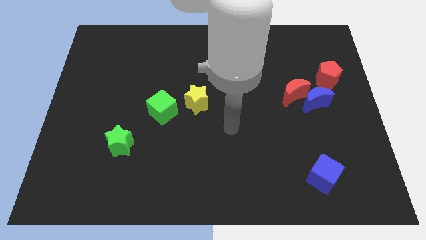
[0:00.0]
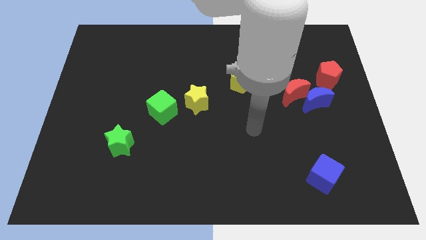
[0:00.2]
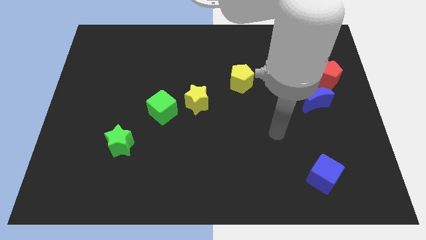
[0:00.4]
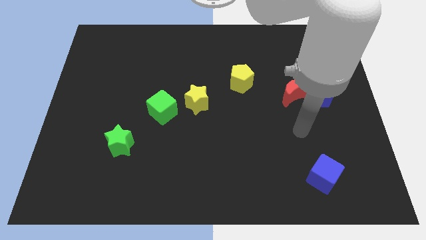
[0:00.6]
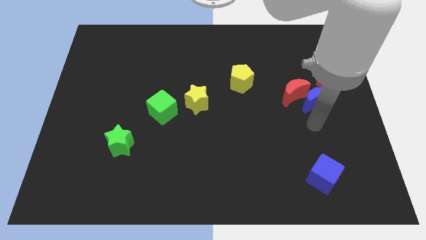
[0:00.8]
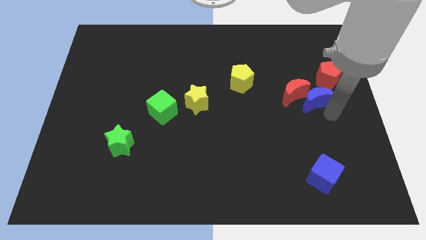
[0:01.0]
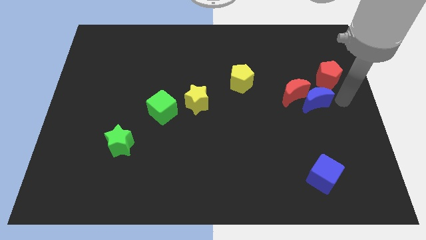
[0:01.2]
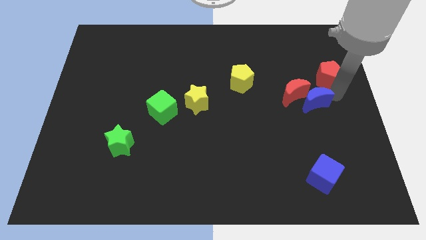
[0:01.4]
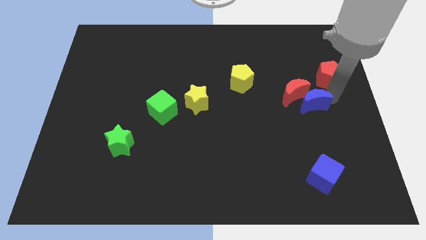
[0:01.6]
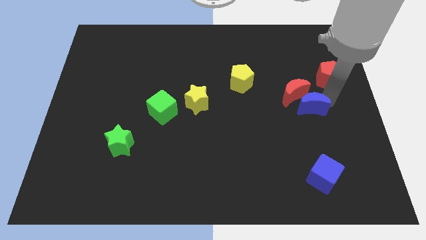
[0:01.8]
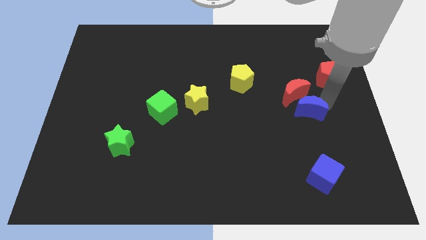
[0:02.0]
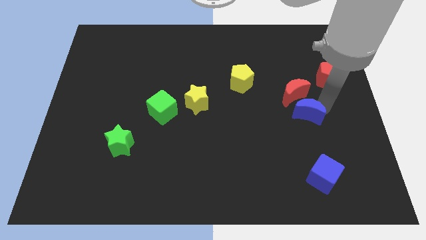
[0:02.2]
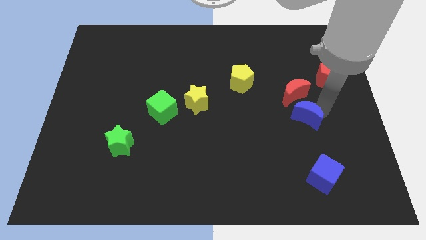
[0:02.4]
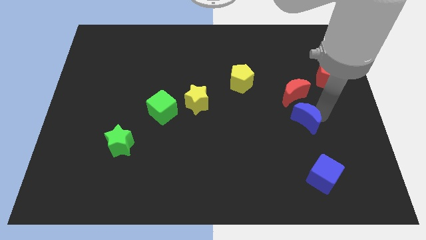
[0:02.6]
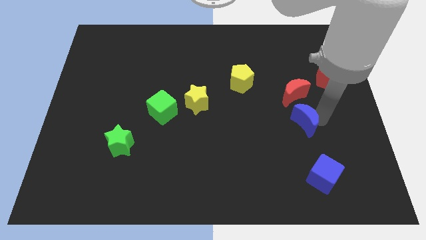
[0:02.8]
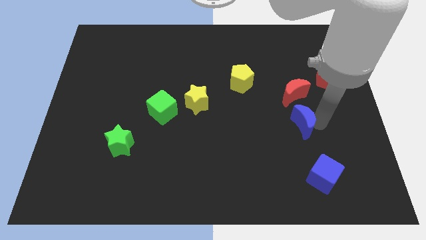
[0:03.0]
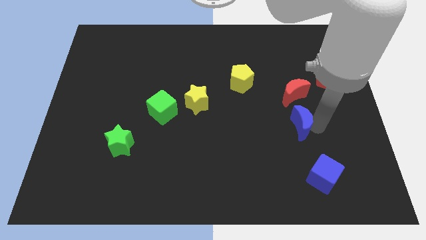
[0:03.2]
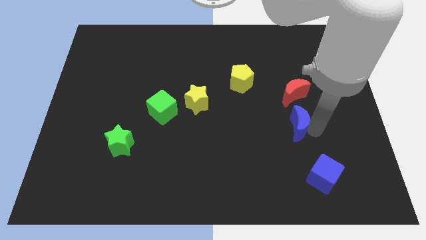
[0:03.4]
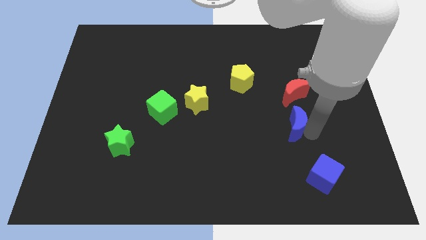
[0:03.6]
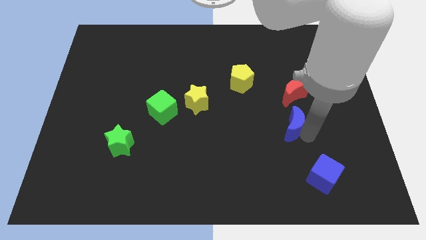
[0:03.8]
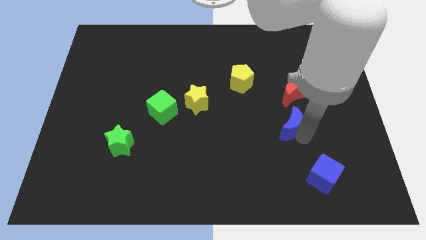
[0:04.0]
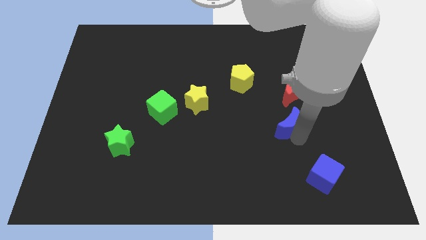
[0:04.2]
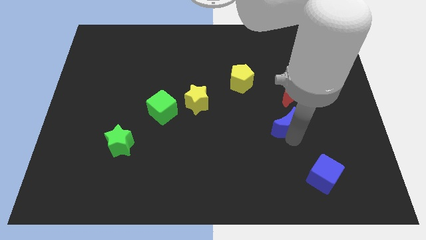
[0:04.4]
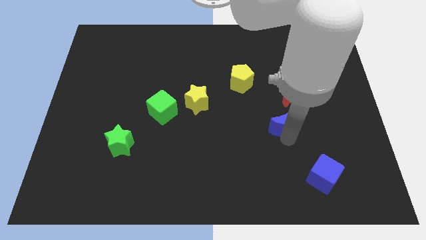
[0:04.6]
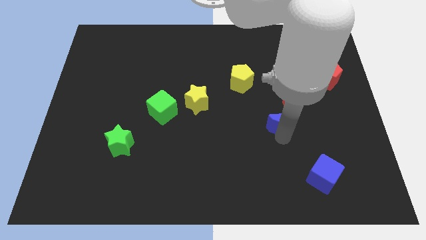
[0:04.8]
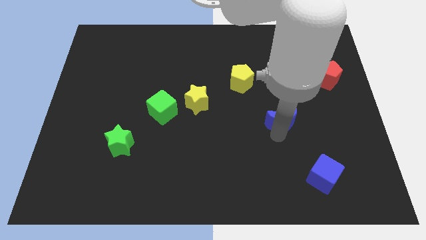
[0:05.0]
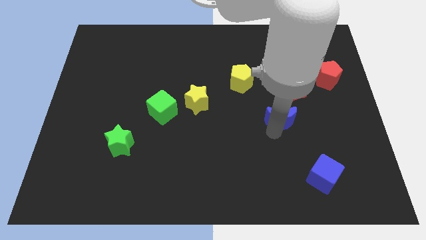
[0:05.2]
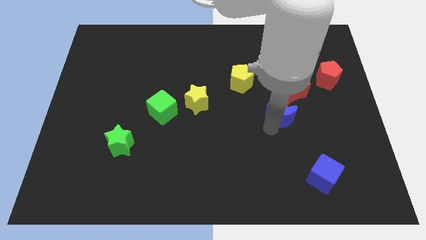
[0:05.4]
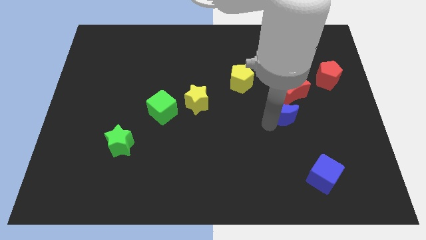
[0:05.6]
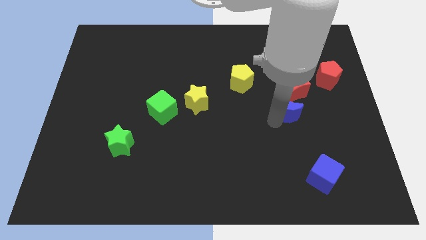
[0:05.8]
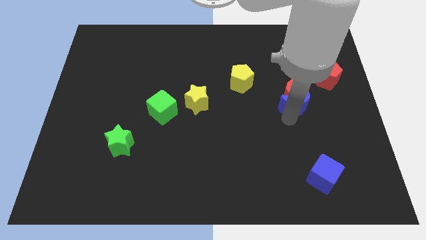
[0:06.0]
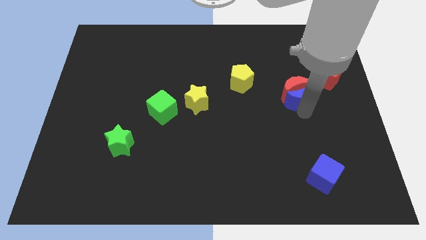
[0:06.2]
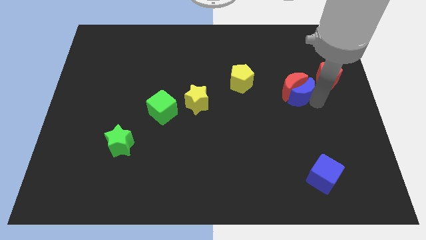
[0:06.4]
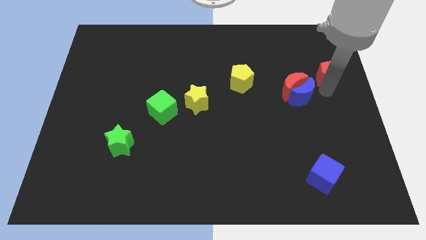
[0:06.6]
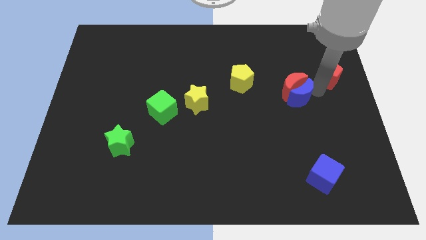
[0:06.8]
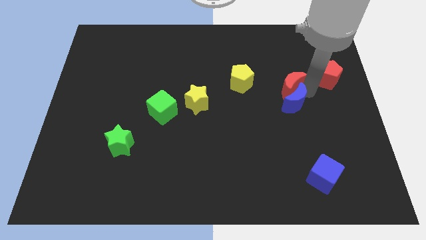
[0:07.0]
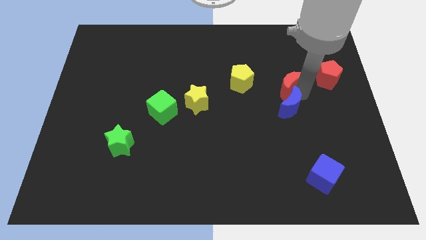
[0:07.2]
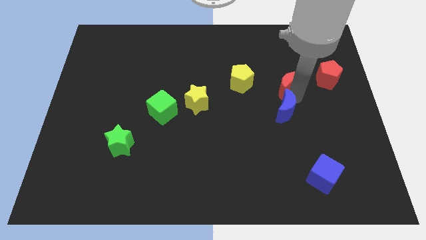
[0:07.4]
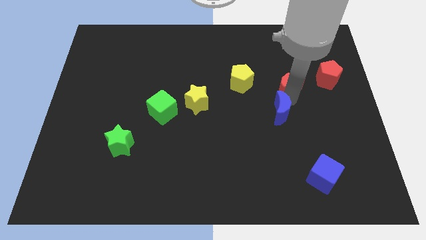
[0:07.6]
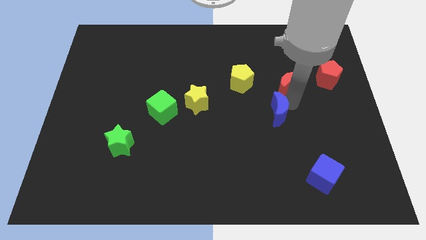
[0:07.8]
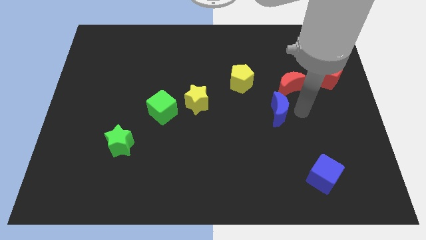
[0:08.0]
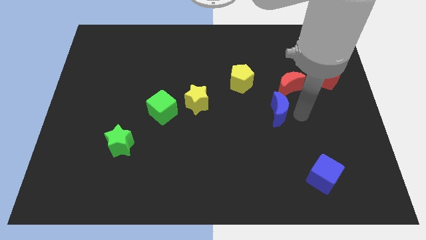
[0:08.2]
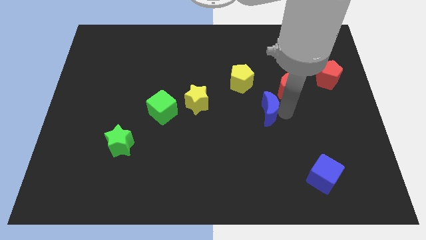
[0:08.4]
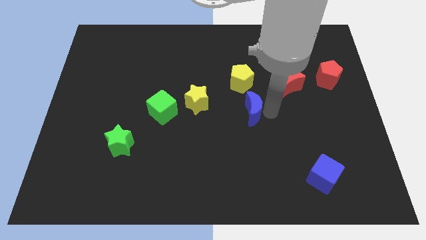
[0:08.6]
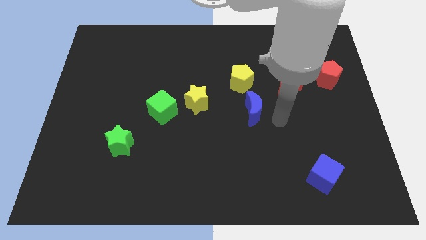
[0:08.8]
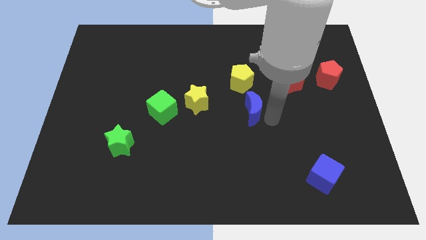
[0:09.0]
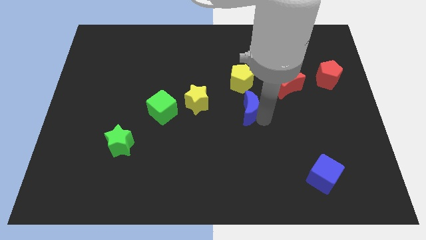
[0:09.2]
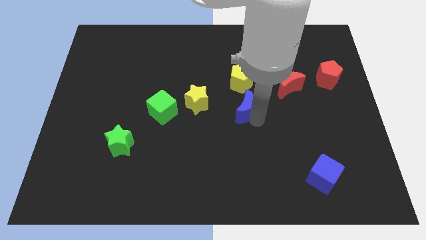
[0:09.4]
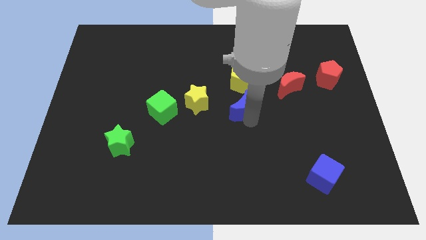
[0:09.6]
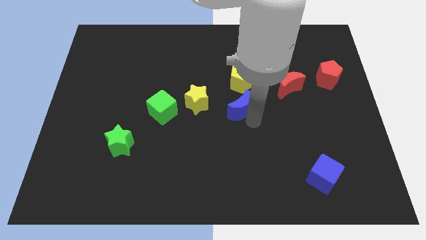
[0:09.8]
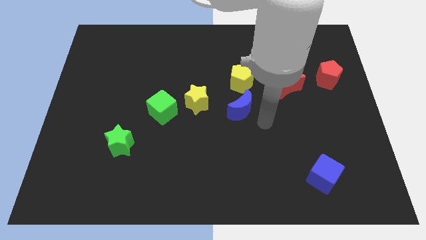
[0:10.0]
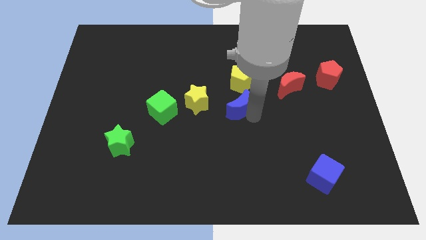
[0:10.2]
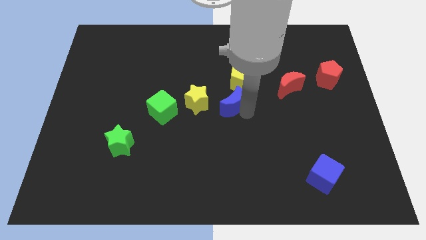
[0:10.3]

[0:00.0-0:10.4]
move the blue moon diagonally down and to the left of the yellow pentagon

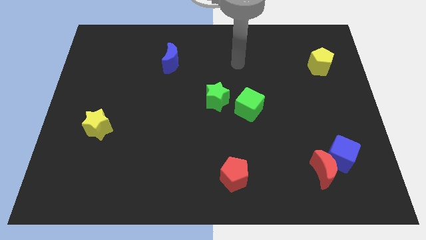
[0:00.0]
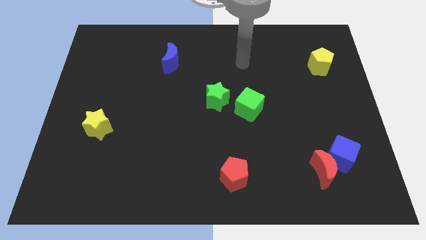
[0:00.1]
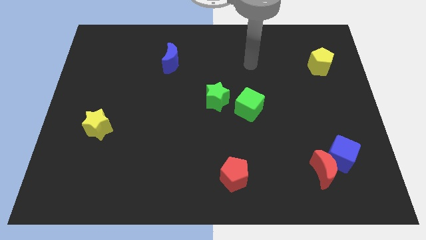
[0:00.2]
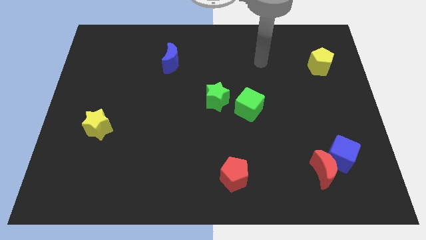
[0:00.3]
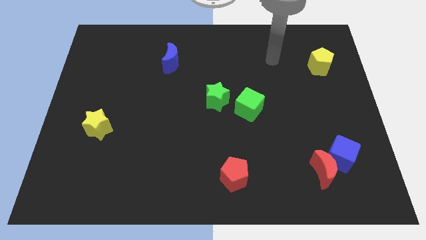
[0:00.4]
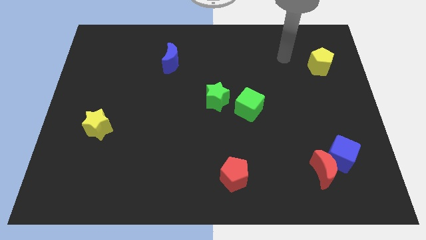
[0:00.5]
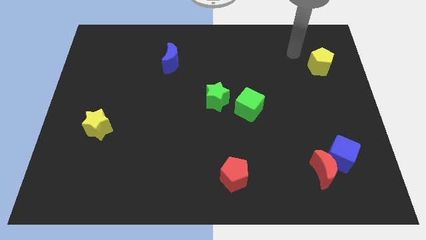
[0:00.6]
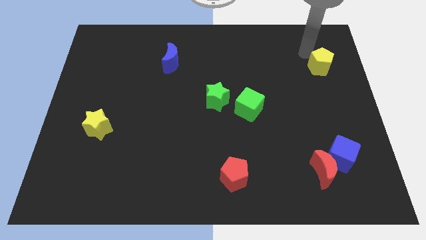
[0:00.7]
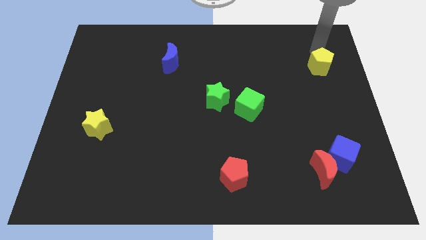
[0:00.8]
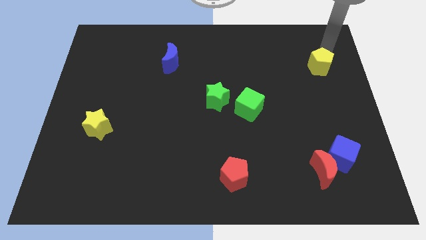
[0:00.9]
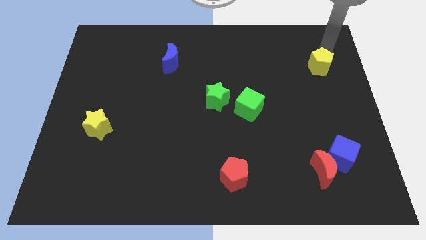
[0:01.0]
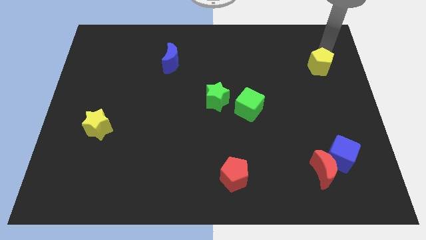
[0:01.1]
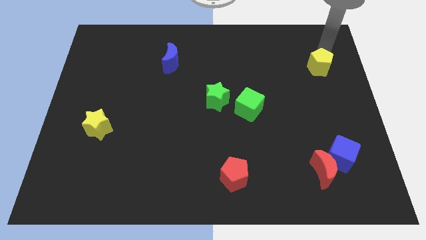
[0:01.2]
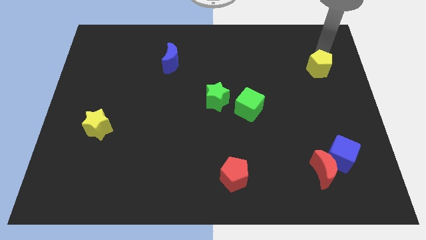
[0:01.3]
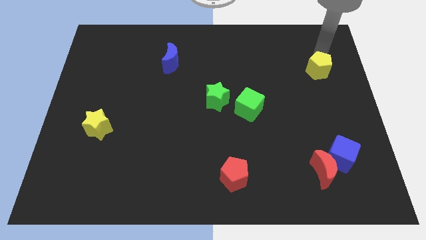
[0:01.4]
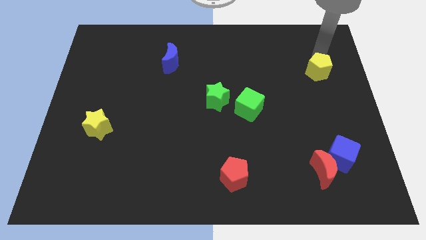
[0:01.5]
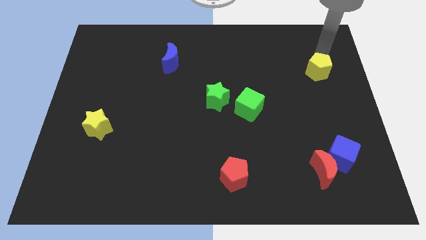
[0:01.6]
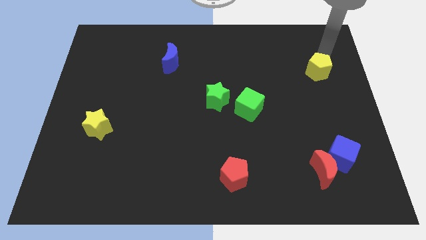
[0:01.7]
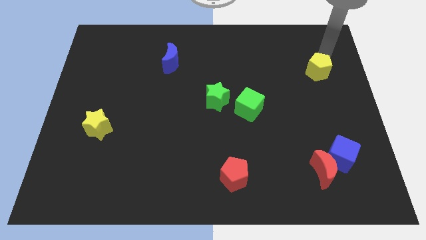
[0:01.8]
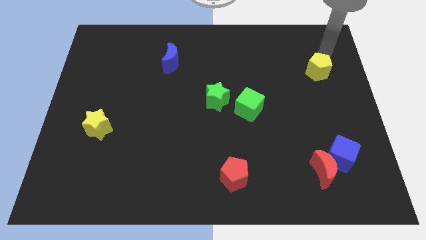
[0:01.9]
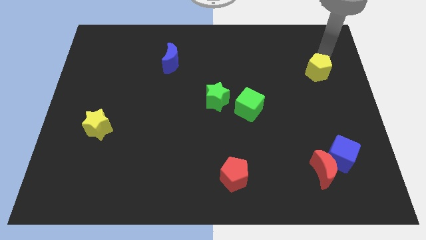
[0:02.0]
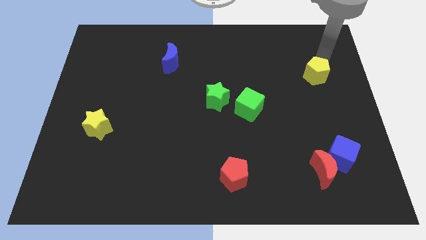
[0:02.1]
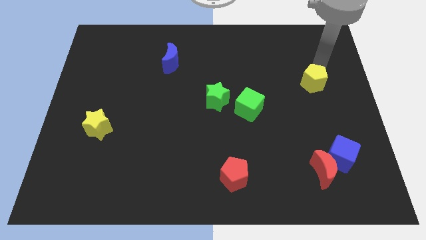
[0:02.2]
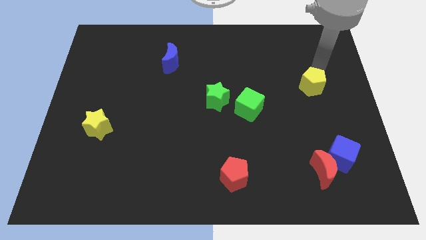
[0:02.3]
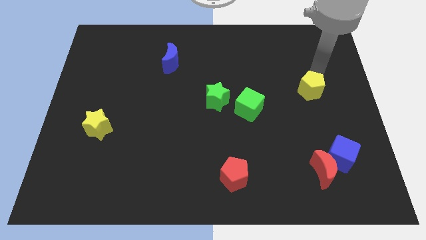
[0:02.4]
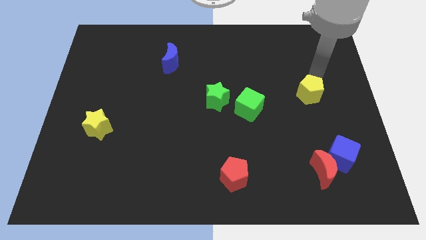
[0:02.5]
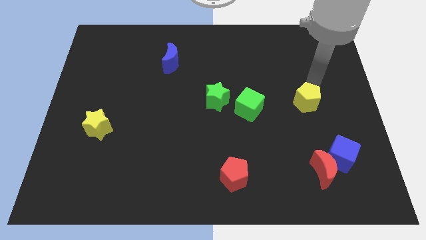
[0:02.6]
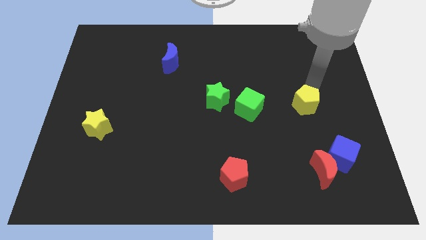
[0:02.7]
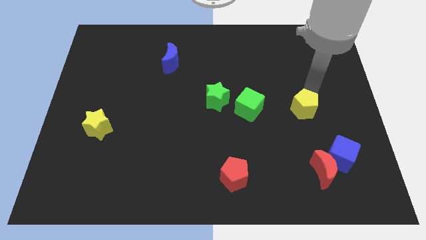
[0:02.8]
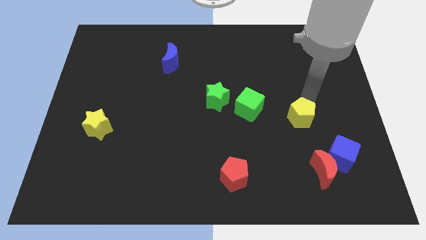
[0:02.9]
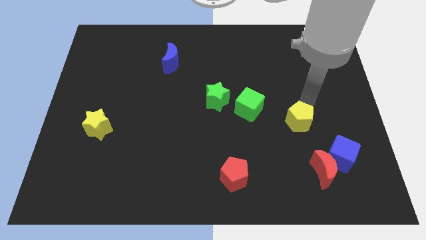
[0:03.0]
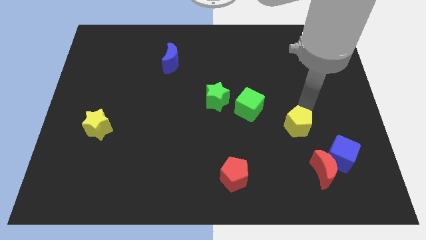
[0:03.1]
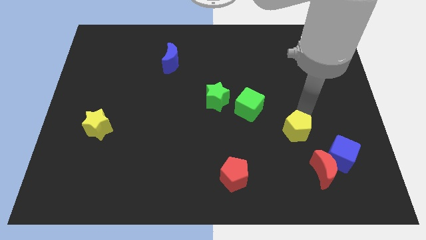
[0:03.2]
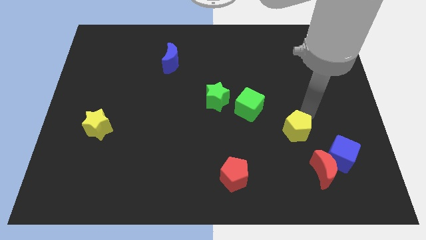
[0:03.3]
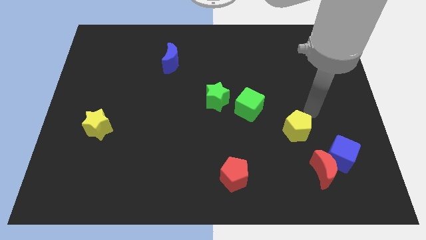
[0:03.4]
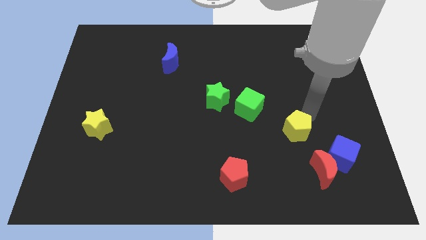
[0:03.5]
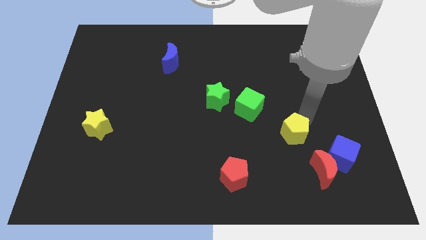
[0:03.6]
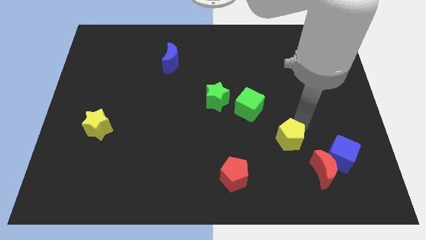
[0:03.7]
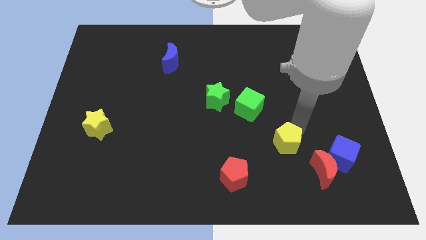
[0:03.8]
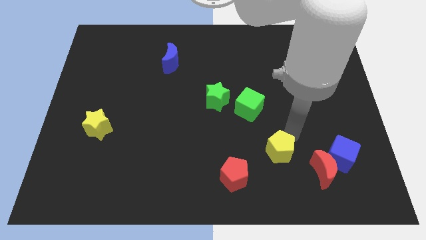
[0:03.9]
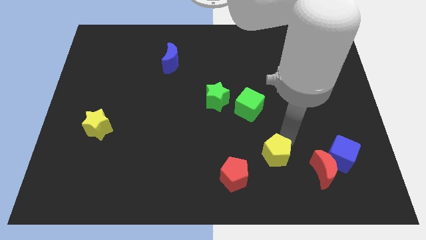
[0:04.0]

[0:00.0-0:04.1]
move the yellow pentagon left of the red moon
